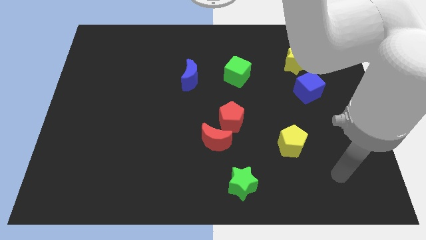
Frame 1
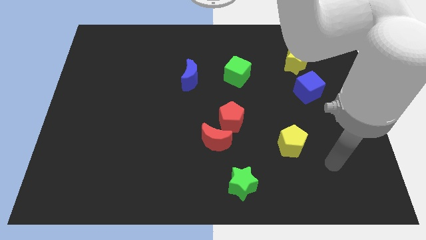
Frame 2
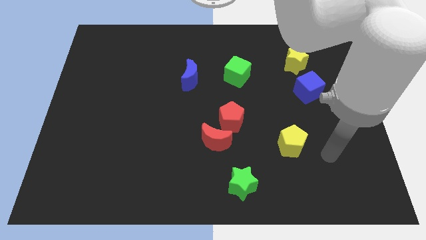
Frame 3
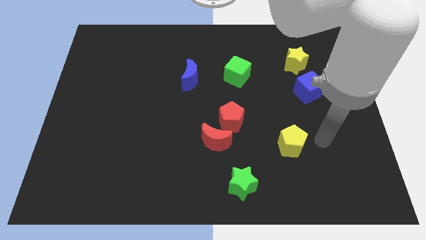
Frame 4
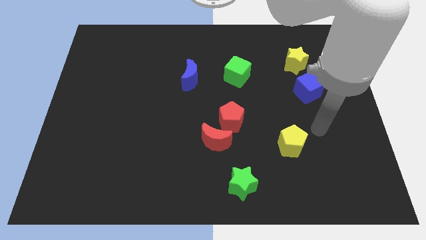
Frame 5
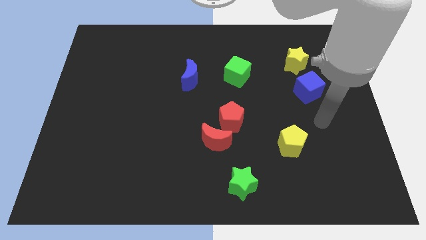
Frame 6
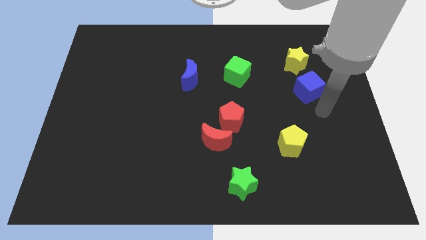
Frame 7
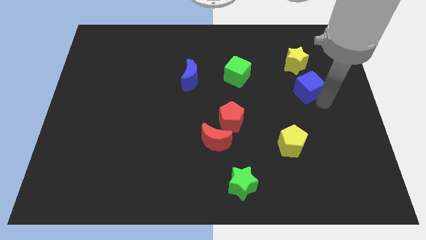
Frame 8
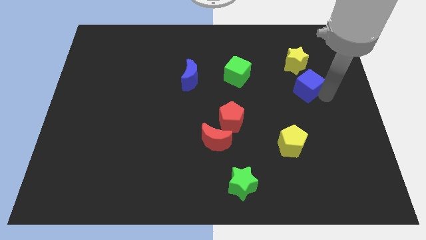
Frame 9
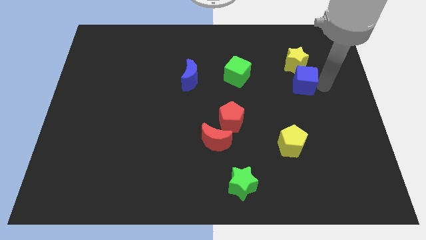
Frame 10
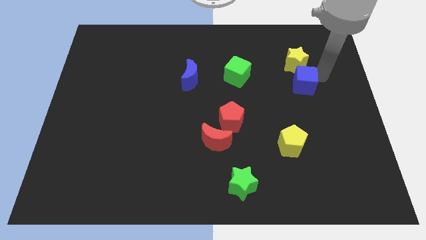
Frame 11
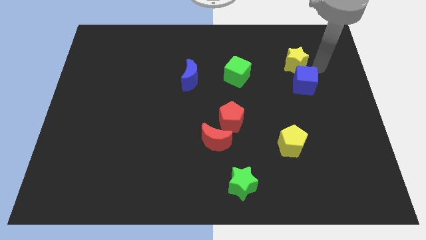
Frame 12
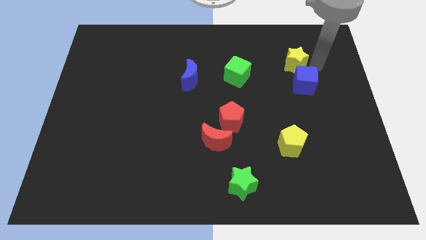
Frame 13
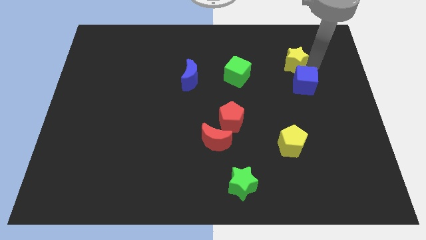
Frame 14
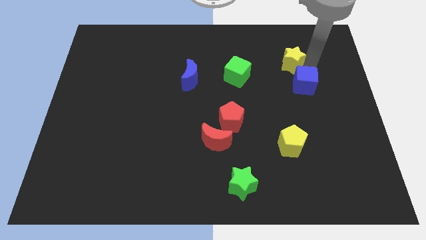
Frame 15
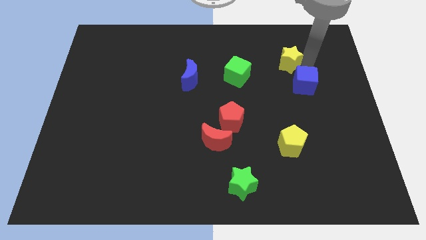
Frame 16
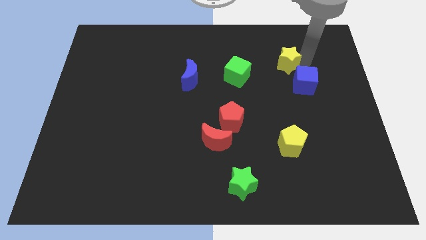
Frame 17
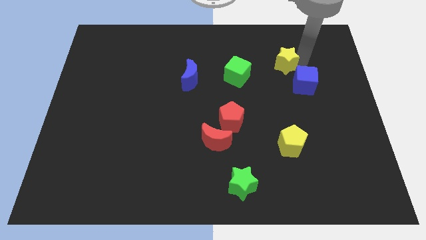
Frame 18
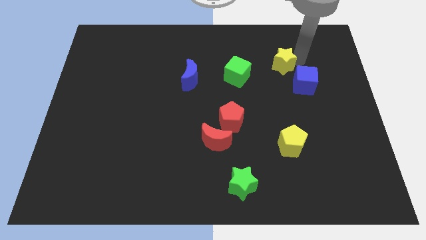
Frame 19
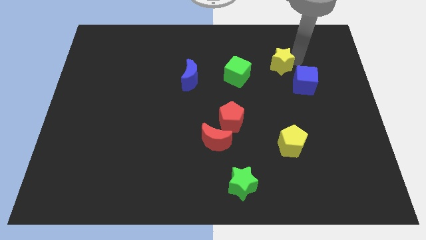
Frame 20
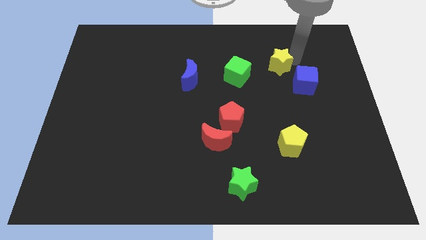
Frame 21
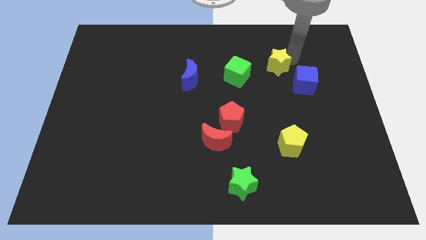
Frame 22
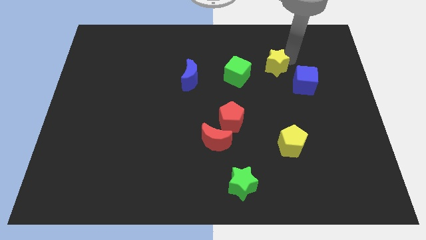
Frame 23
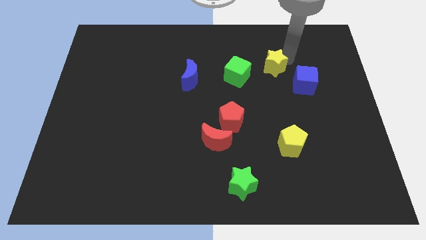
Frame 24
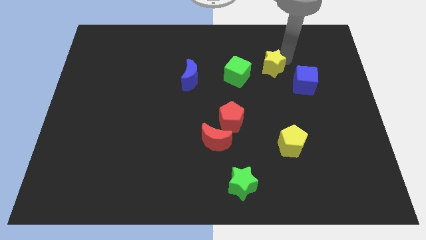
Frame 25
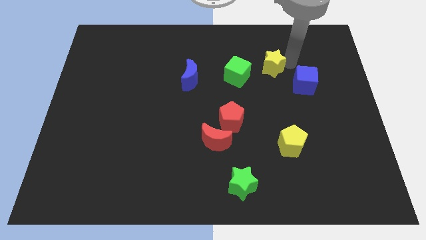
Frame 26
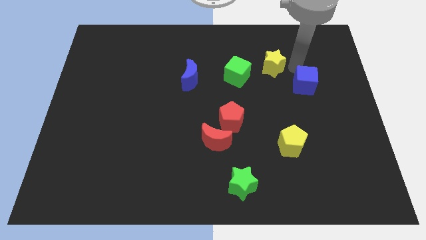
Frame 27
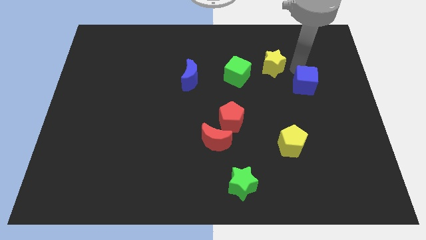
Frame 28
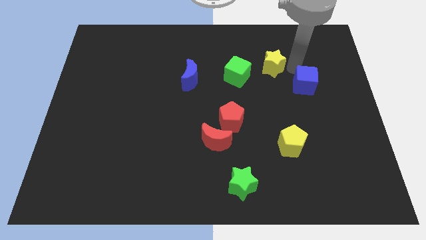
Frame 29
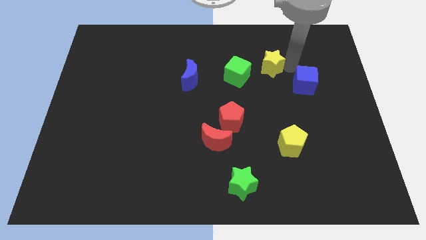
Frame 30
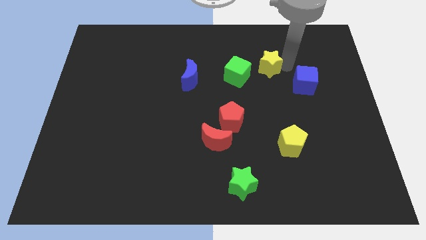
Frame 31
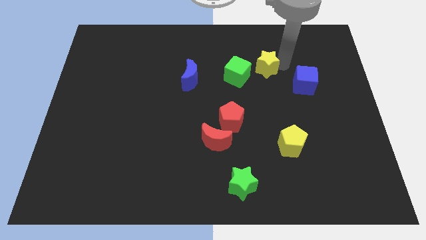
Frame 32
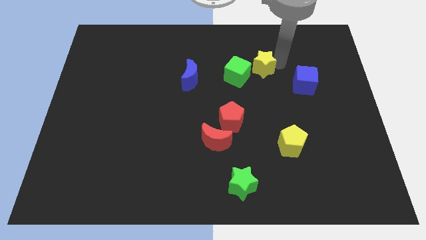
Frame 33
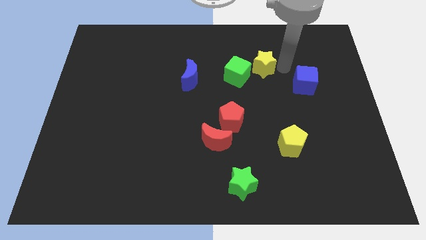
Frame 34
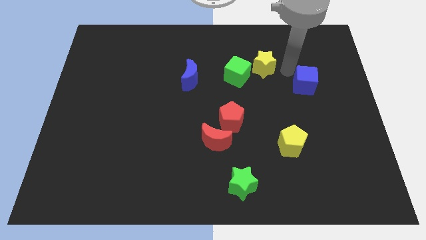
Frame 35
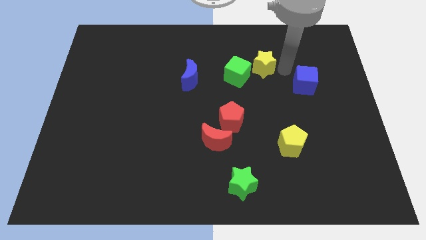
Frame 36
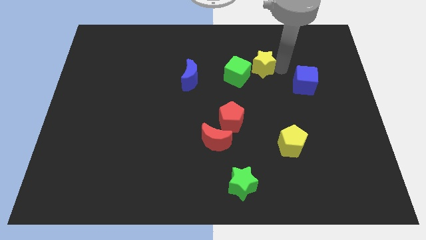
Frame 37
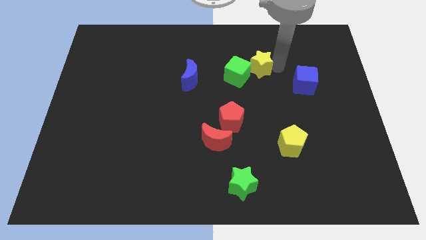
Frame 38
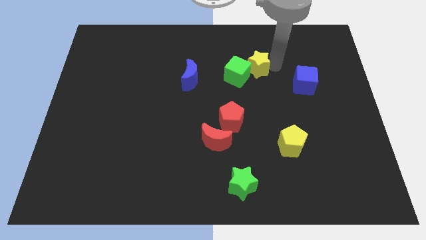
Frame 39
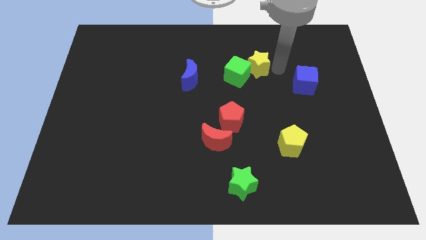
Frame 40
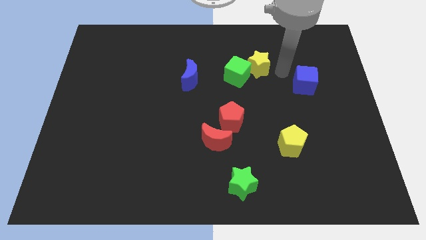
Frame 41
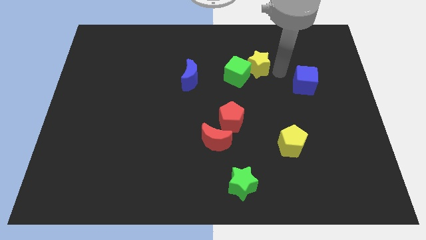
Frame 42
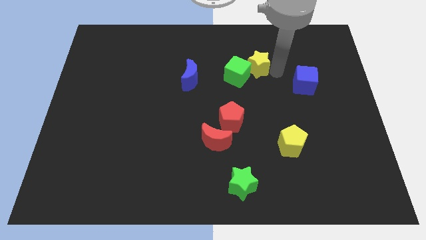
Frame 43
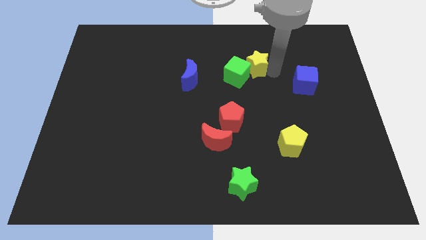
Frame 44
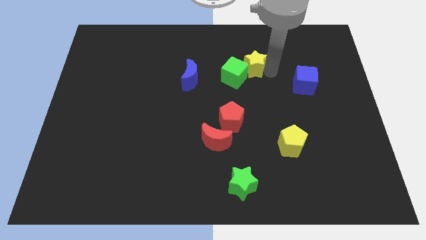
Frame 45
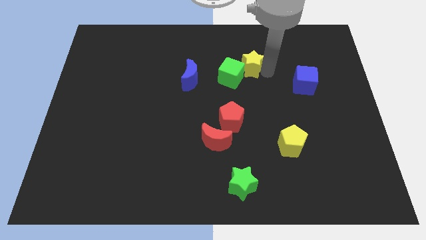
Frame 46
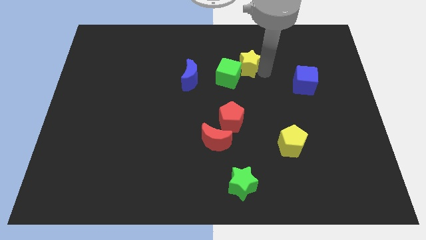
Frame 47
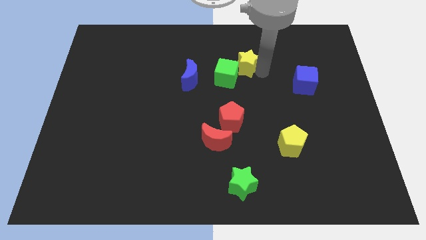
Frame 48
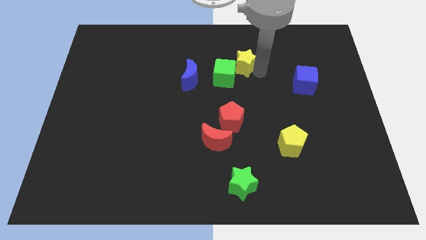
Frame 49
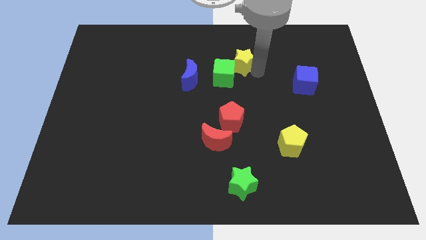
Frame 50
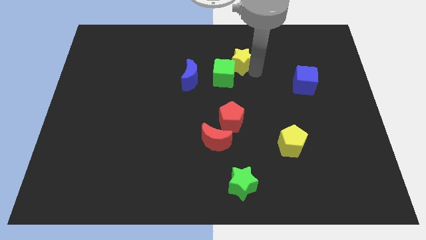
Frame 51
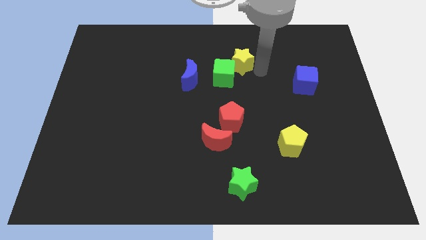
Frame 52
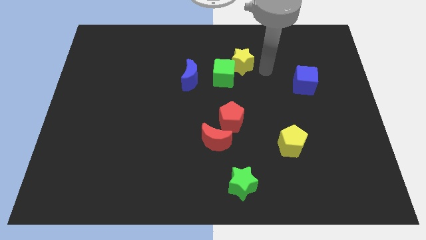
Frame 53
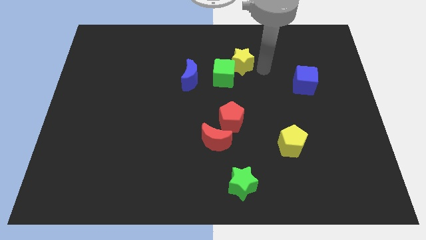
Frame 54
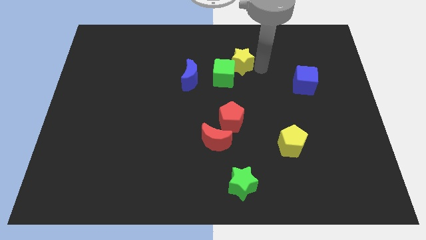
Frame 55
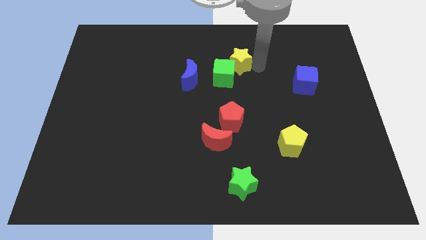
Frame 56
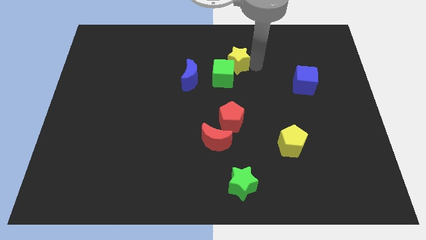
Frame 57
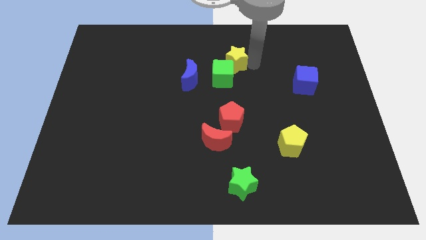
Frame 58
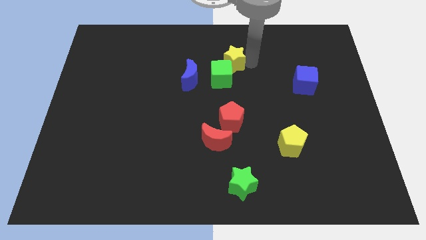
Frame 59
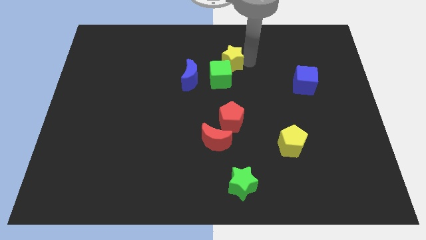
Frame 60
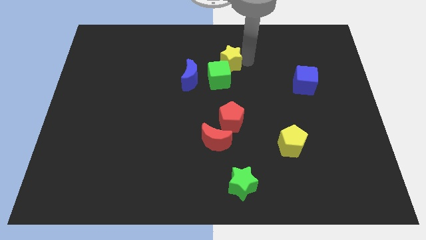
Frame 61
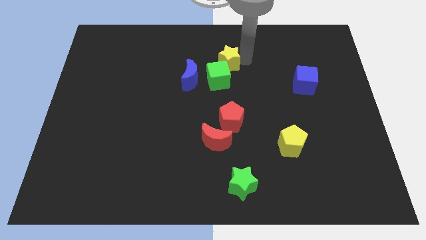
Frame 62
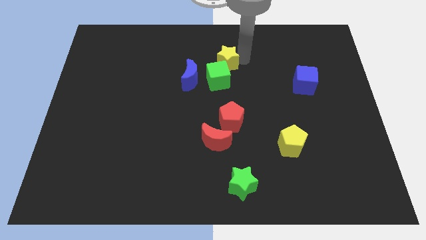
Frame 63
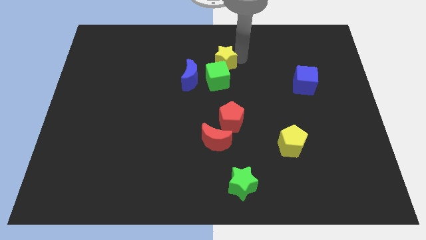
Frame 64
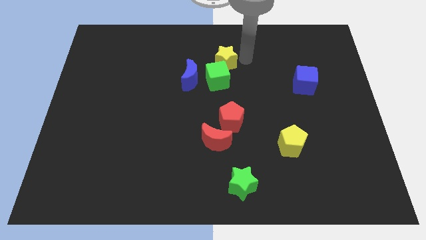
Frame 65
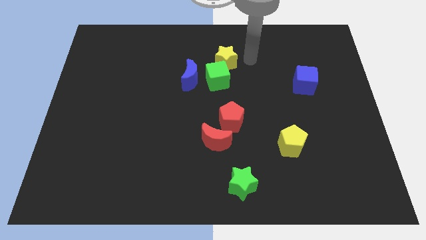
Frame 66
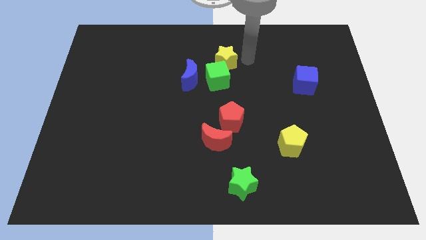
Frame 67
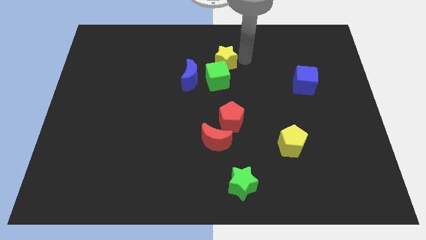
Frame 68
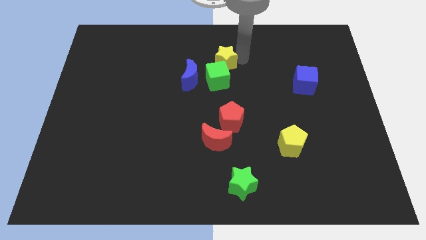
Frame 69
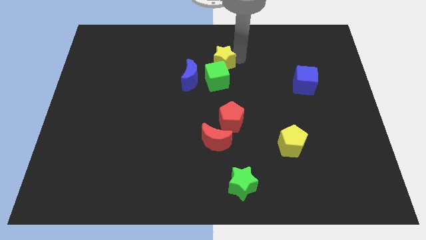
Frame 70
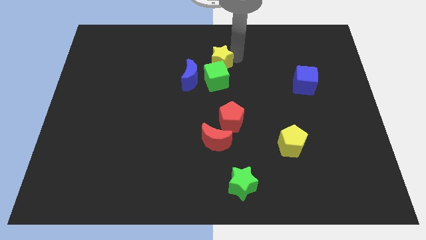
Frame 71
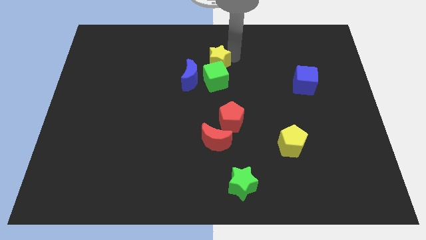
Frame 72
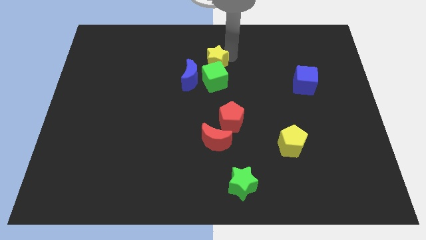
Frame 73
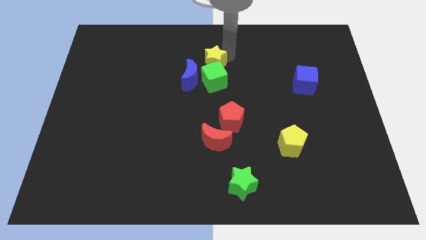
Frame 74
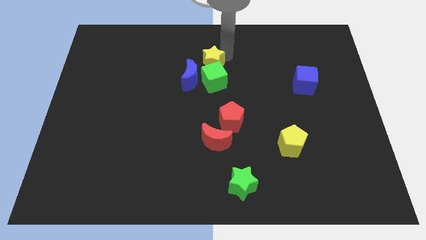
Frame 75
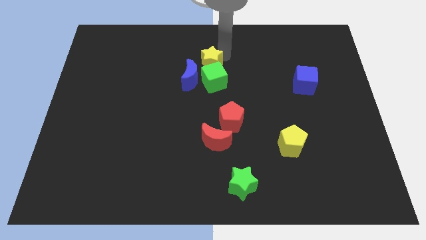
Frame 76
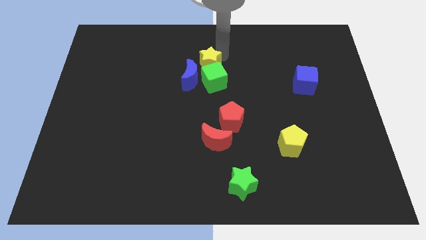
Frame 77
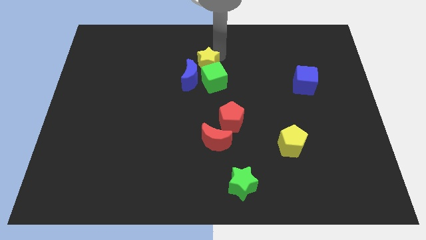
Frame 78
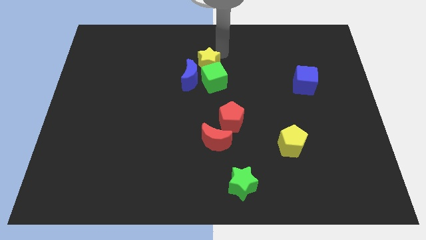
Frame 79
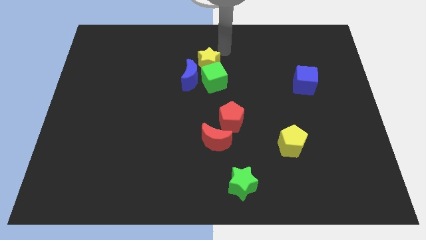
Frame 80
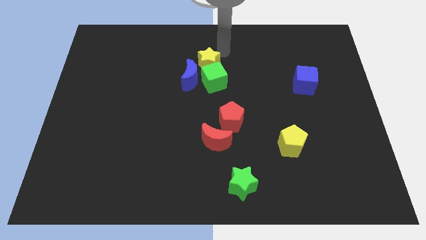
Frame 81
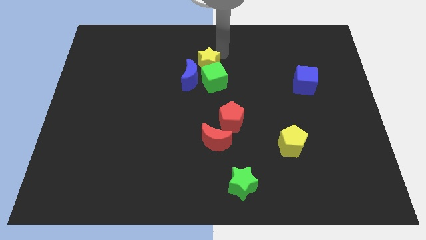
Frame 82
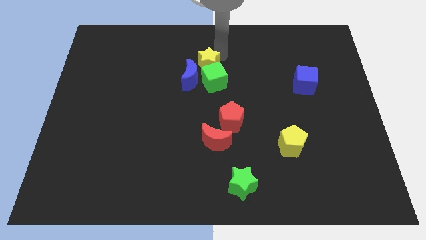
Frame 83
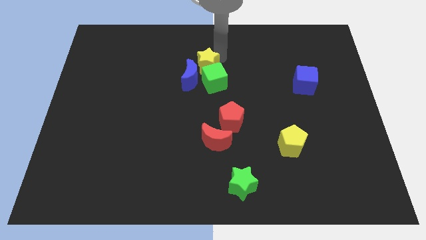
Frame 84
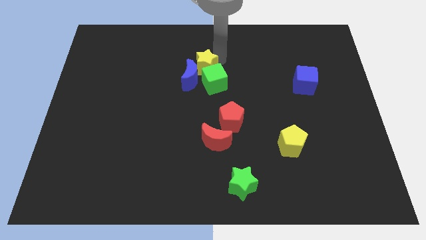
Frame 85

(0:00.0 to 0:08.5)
slide the yellow star next to the blue moon
